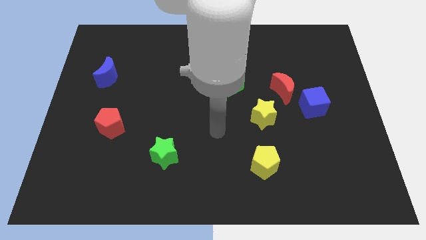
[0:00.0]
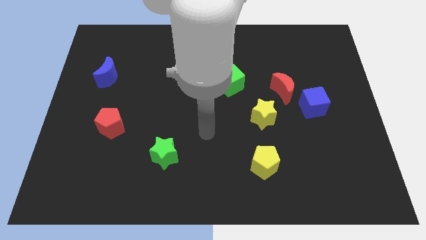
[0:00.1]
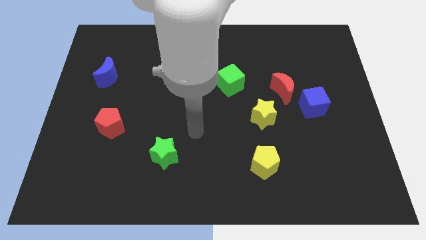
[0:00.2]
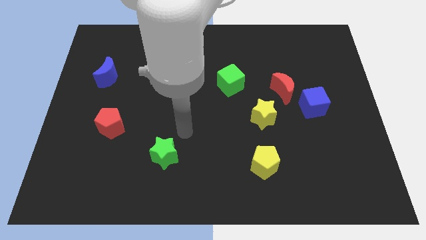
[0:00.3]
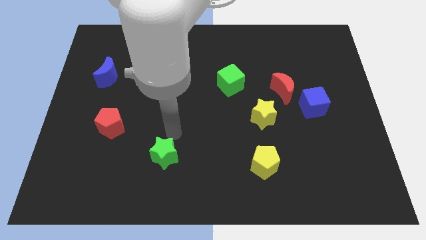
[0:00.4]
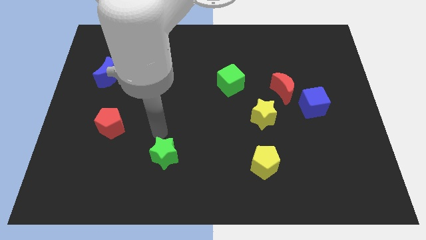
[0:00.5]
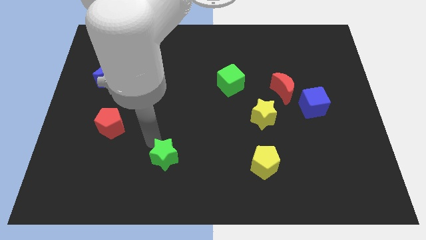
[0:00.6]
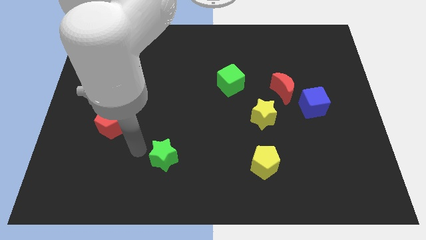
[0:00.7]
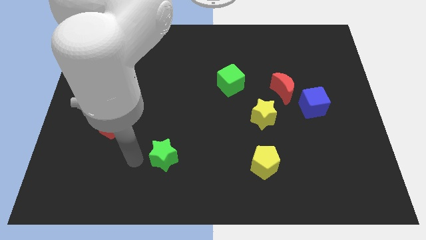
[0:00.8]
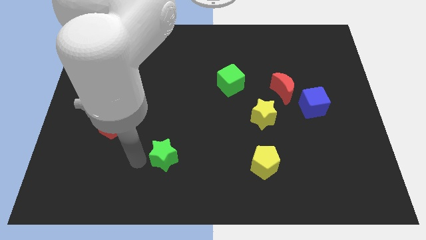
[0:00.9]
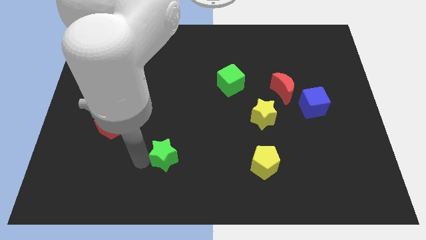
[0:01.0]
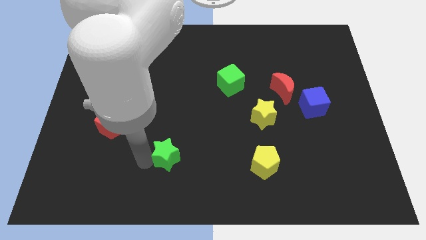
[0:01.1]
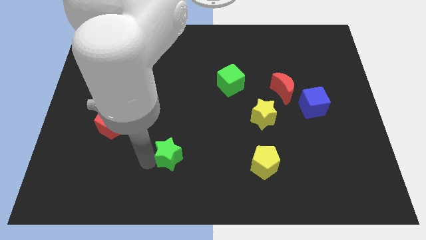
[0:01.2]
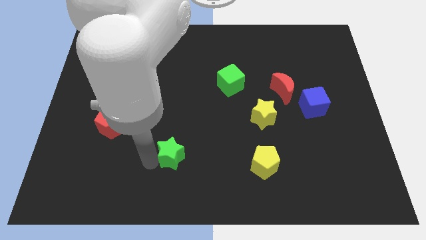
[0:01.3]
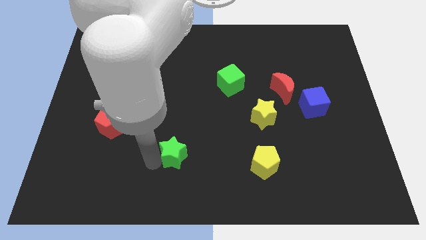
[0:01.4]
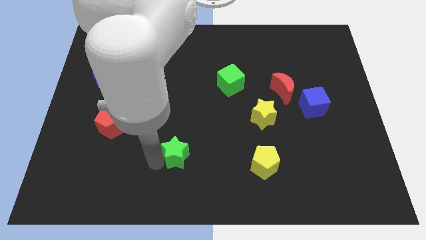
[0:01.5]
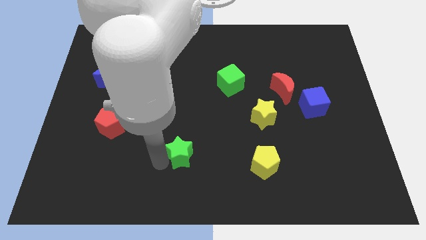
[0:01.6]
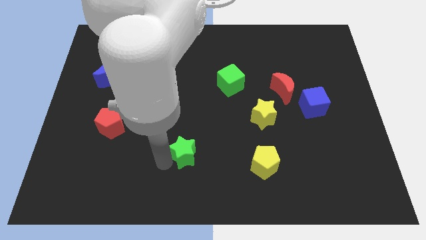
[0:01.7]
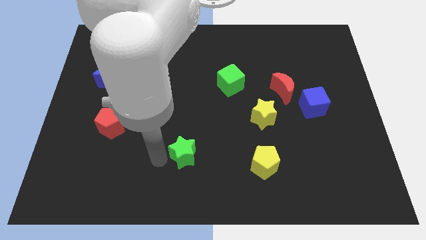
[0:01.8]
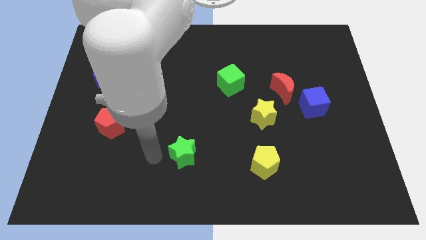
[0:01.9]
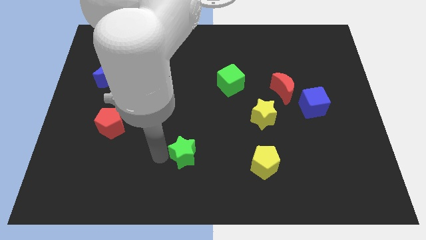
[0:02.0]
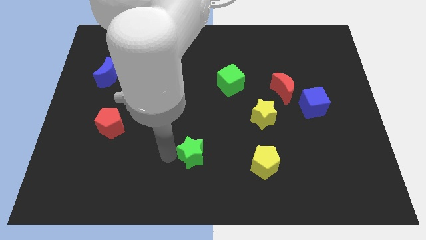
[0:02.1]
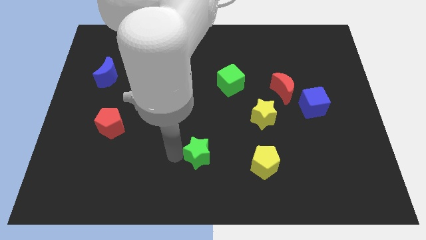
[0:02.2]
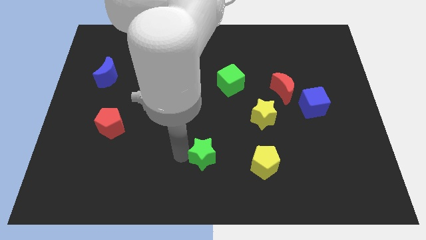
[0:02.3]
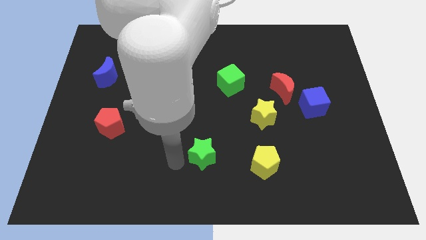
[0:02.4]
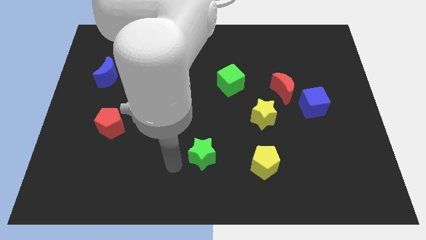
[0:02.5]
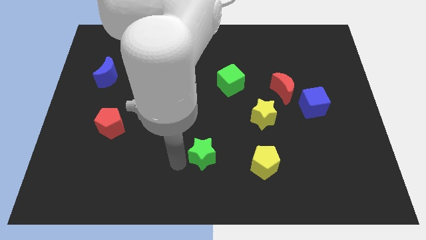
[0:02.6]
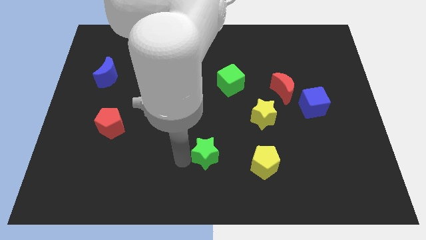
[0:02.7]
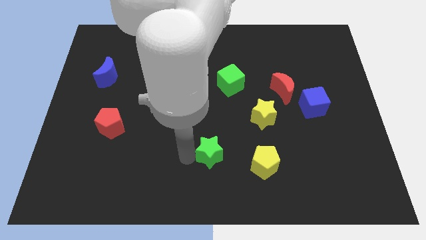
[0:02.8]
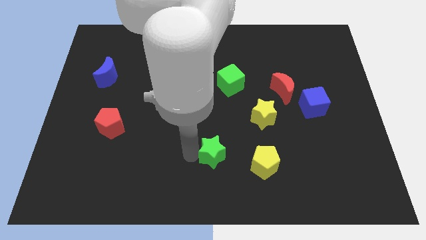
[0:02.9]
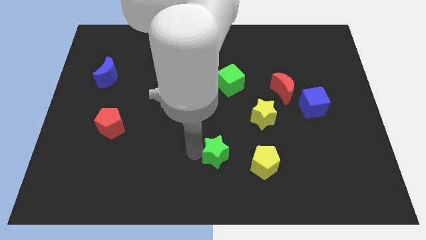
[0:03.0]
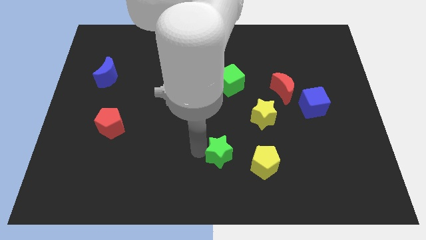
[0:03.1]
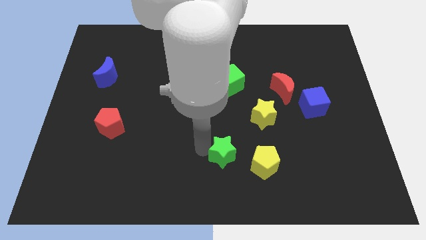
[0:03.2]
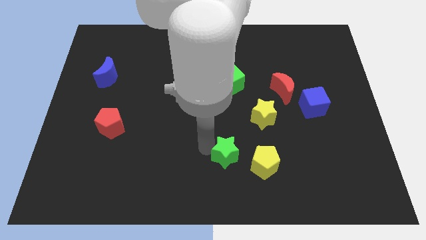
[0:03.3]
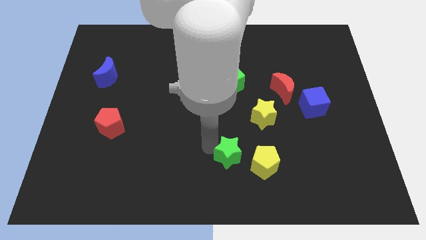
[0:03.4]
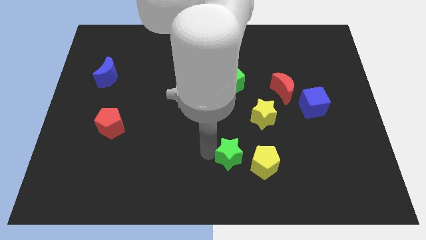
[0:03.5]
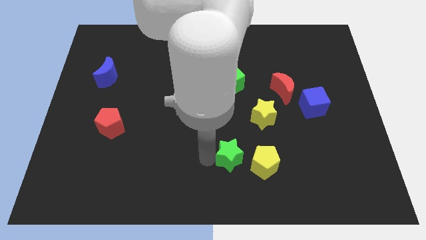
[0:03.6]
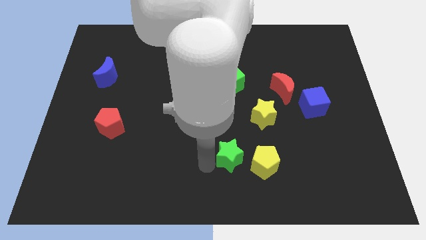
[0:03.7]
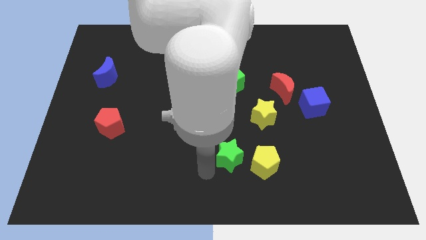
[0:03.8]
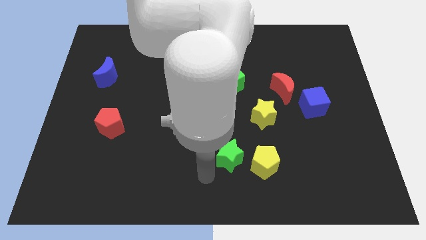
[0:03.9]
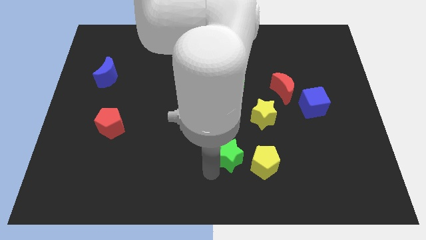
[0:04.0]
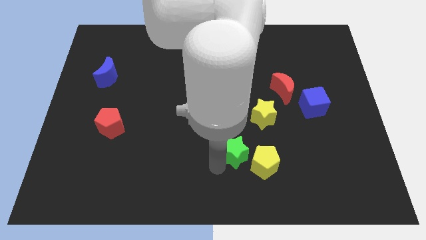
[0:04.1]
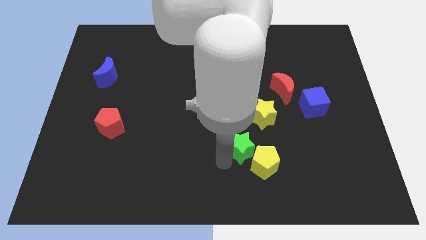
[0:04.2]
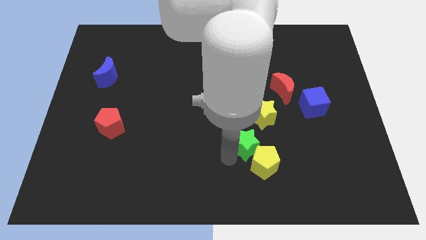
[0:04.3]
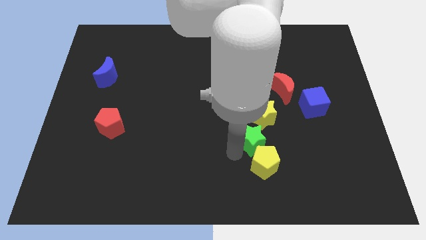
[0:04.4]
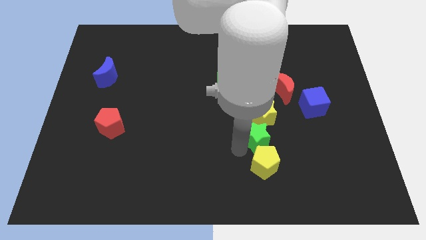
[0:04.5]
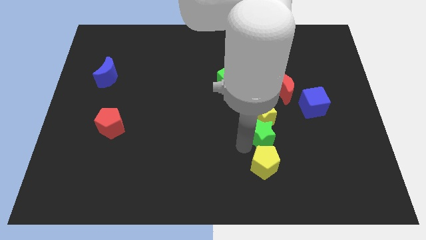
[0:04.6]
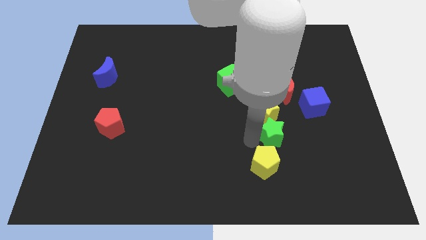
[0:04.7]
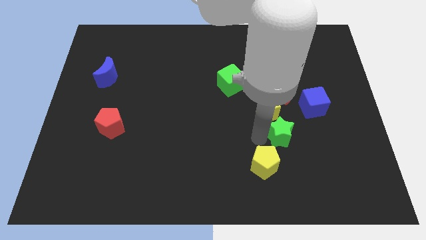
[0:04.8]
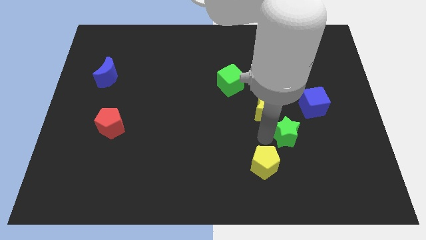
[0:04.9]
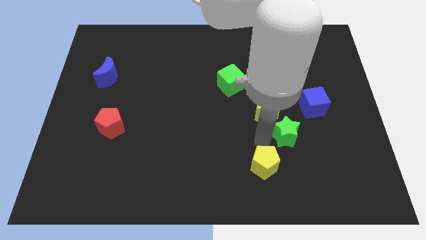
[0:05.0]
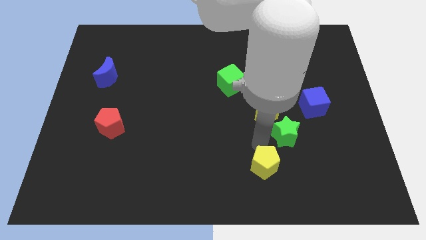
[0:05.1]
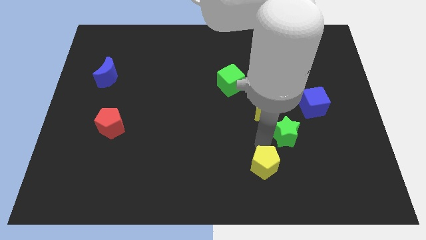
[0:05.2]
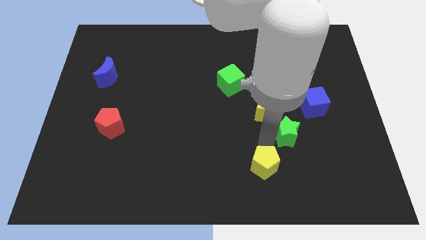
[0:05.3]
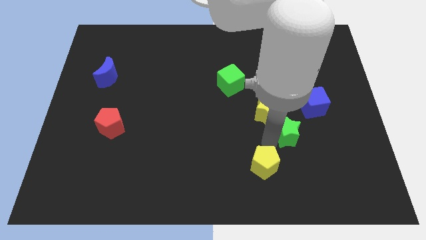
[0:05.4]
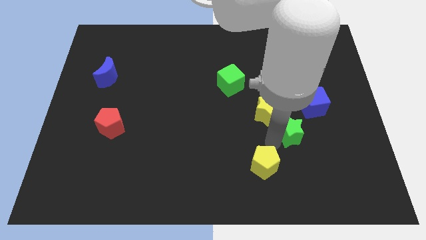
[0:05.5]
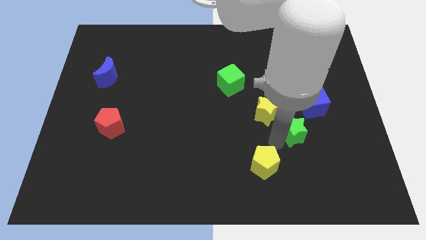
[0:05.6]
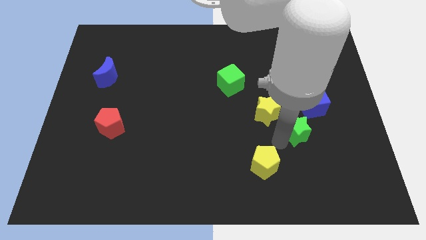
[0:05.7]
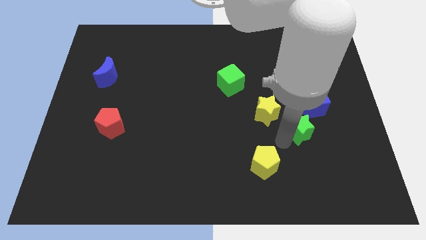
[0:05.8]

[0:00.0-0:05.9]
move the green star just right of the yellow star

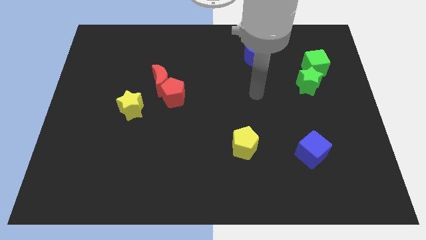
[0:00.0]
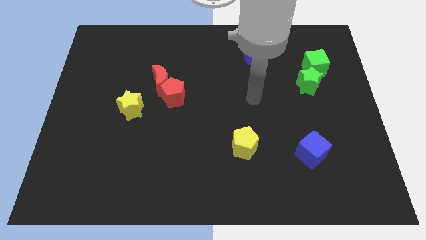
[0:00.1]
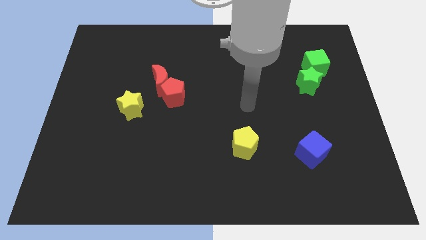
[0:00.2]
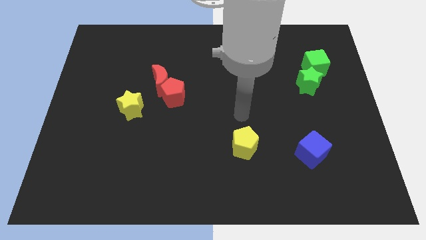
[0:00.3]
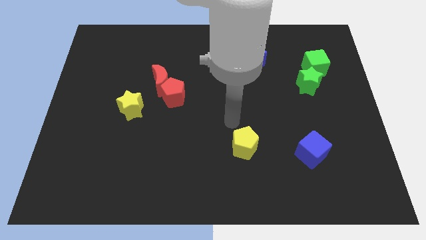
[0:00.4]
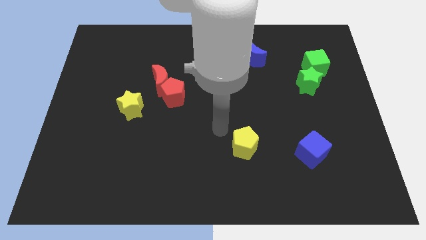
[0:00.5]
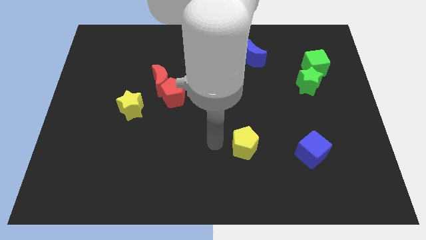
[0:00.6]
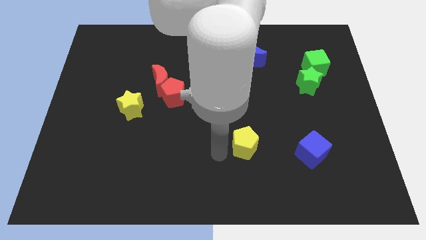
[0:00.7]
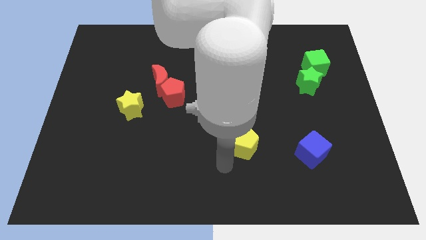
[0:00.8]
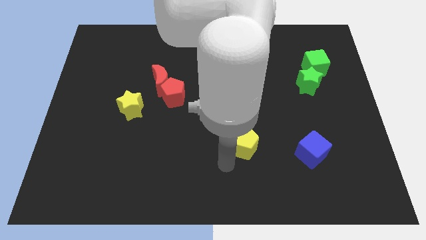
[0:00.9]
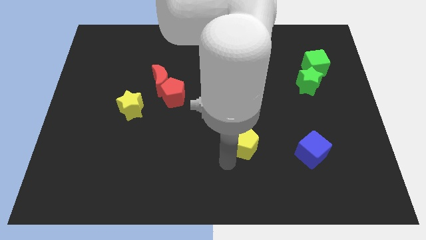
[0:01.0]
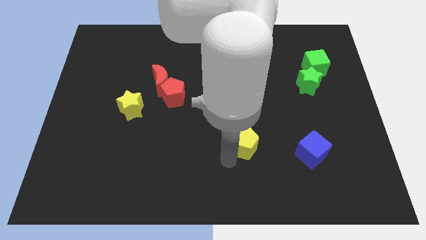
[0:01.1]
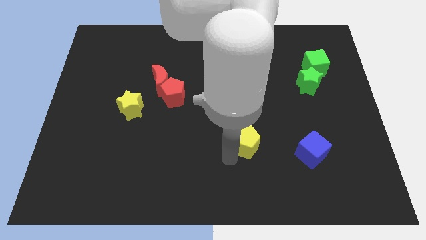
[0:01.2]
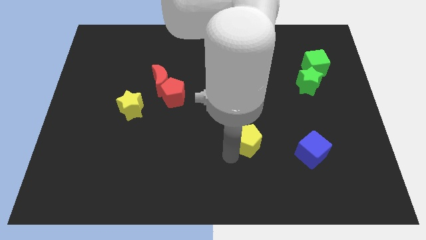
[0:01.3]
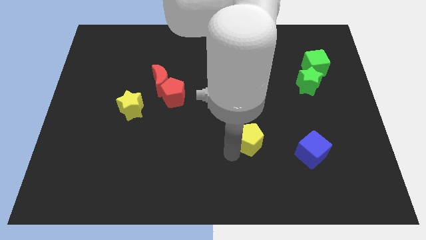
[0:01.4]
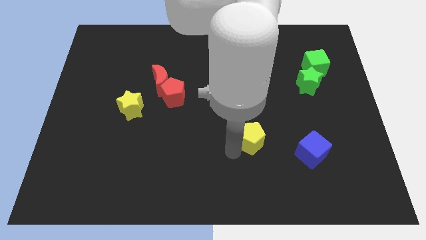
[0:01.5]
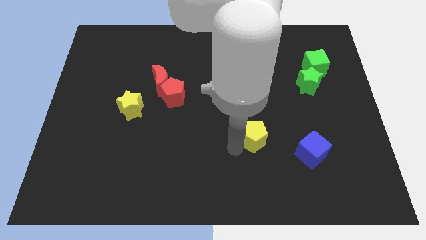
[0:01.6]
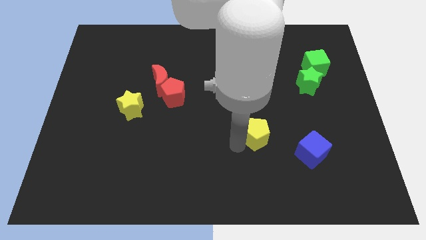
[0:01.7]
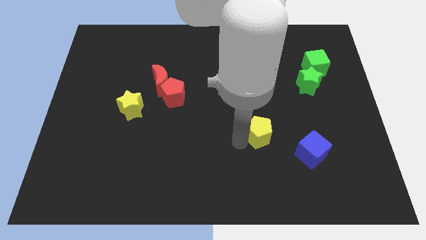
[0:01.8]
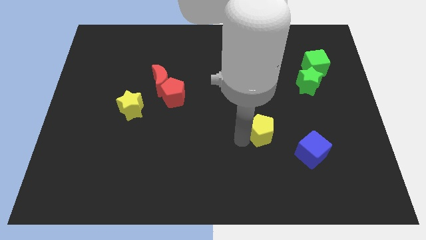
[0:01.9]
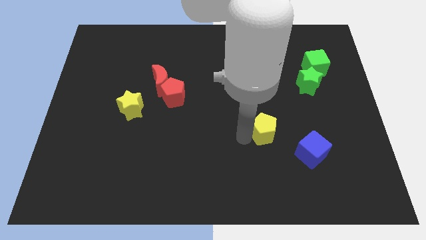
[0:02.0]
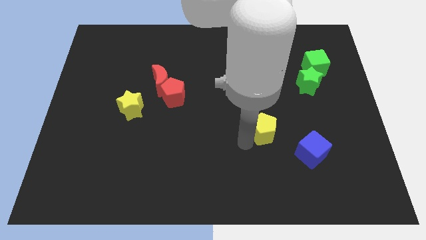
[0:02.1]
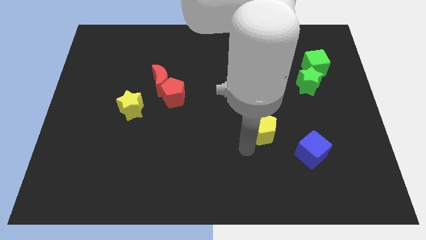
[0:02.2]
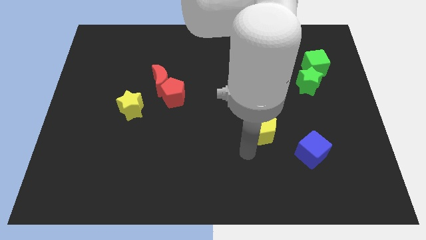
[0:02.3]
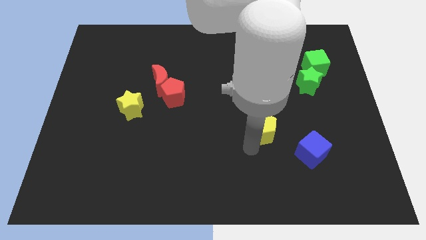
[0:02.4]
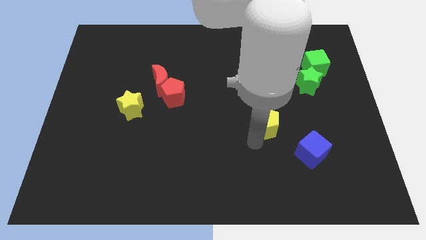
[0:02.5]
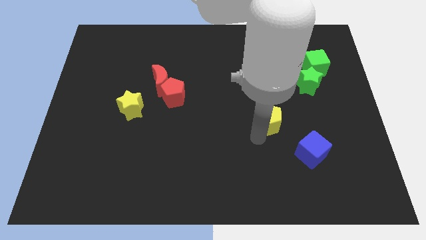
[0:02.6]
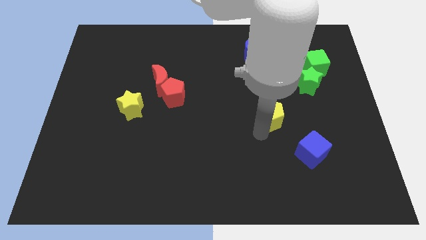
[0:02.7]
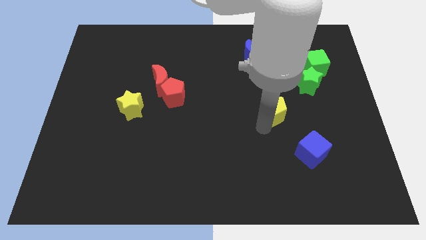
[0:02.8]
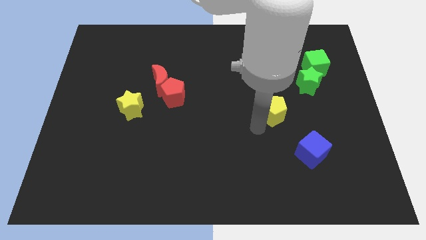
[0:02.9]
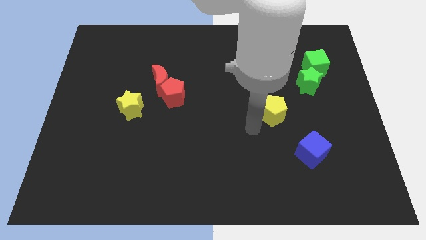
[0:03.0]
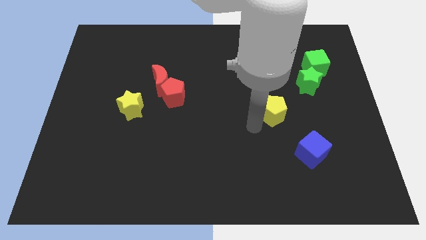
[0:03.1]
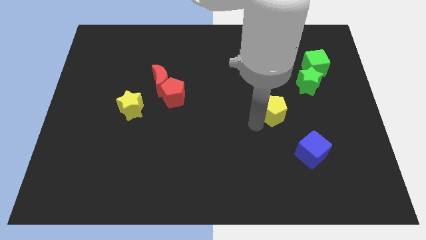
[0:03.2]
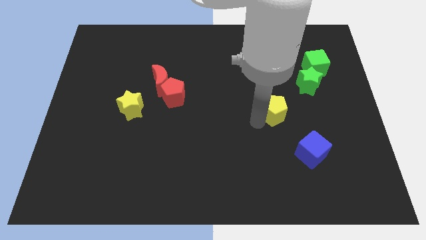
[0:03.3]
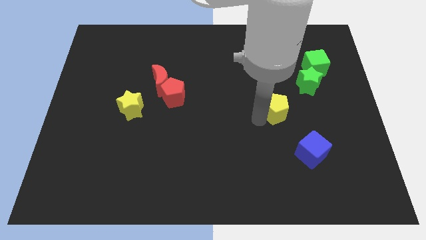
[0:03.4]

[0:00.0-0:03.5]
move the yellow pentagon to the bottom left of the green star
